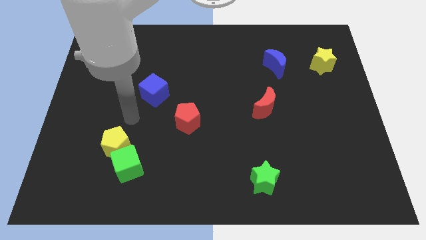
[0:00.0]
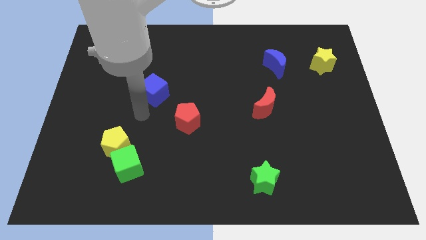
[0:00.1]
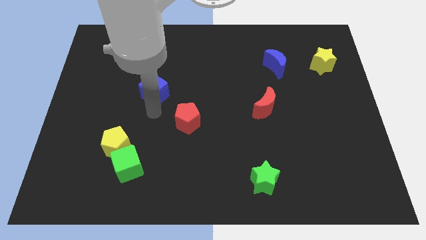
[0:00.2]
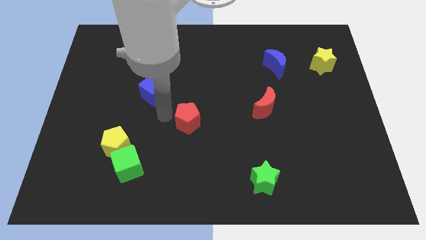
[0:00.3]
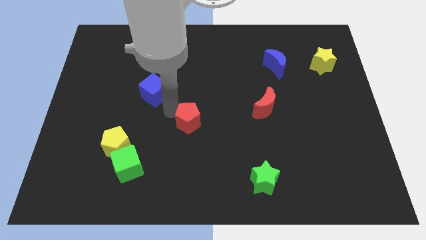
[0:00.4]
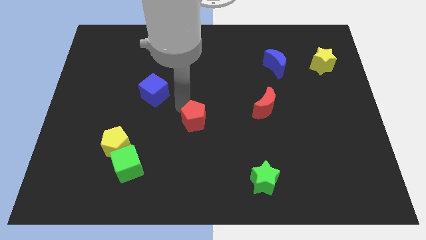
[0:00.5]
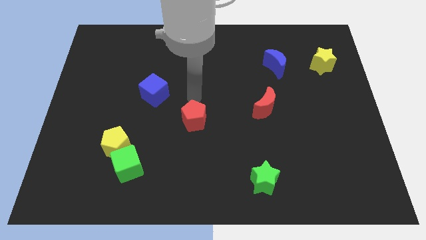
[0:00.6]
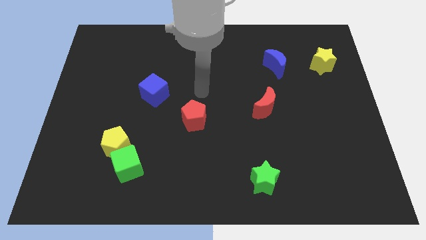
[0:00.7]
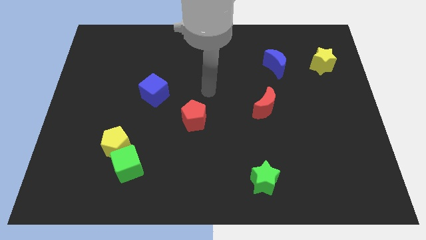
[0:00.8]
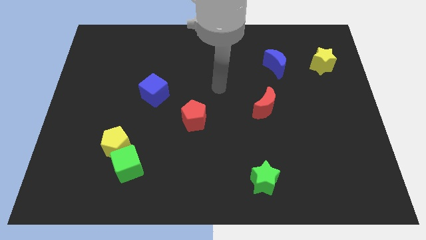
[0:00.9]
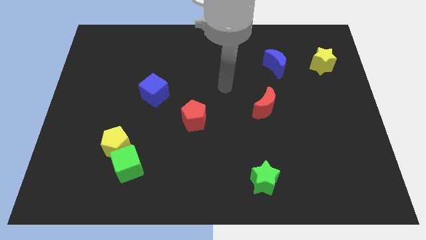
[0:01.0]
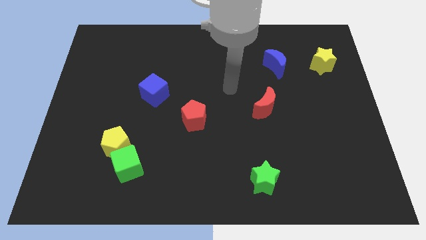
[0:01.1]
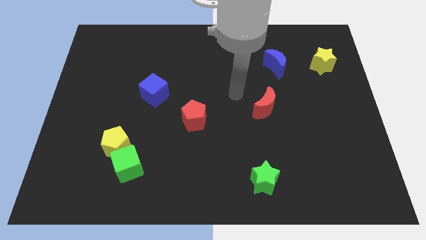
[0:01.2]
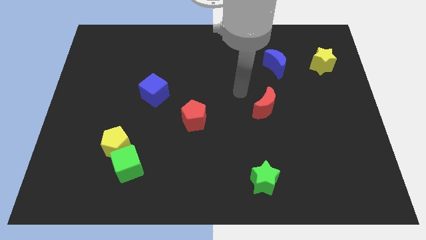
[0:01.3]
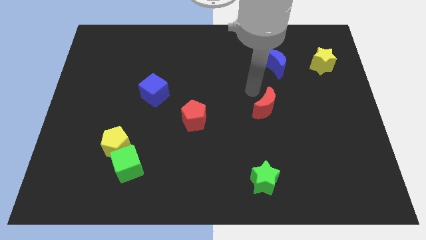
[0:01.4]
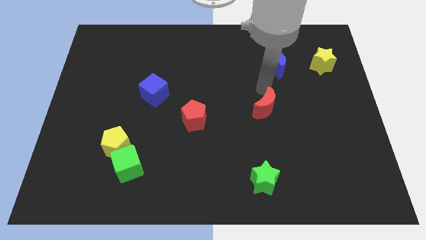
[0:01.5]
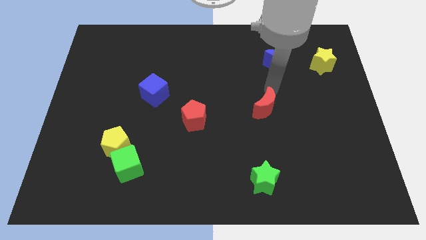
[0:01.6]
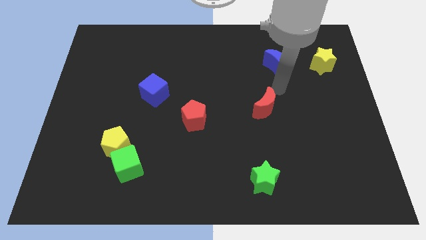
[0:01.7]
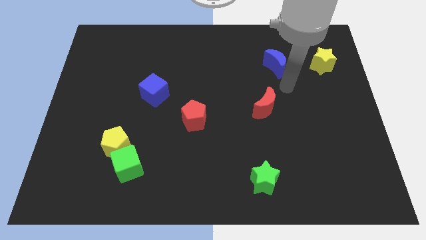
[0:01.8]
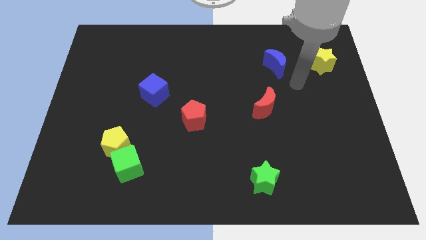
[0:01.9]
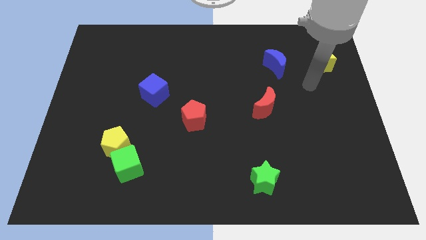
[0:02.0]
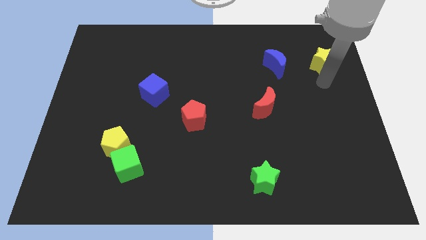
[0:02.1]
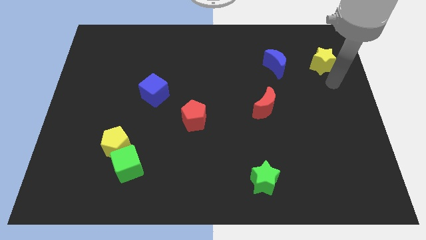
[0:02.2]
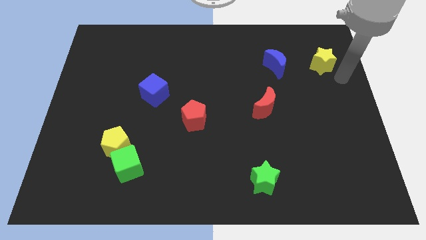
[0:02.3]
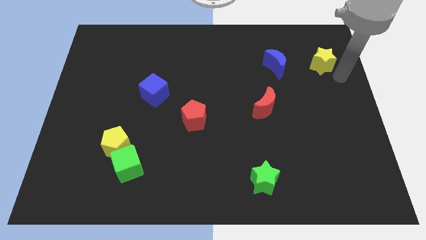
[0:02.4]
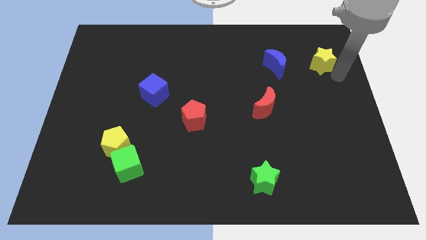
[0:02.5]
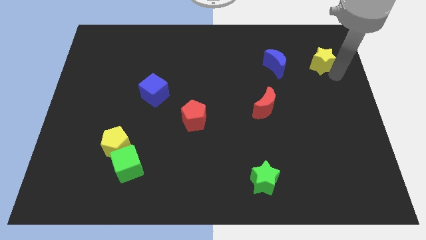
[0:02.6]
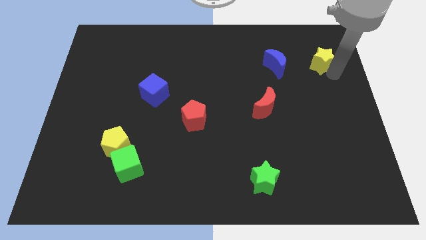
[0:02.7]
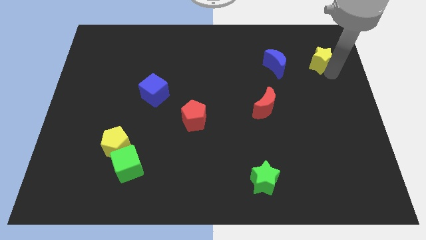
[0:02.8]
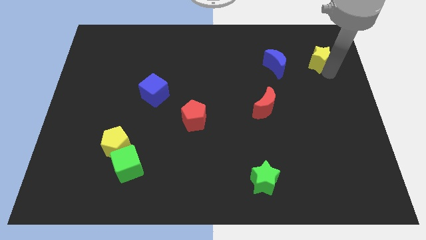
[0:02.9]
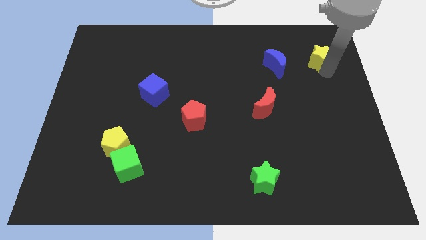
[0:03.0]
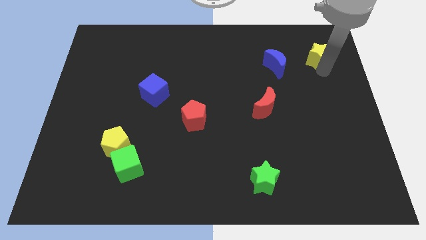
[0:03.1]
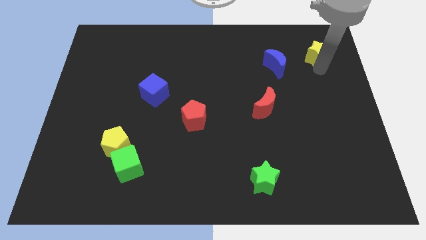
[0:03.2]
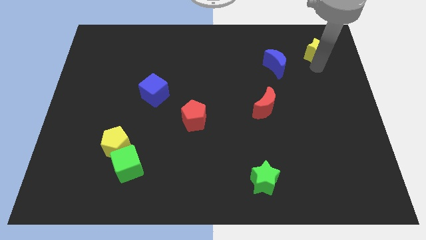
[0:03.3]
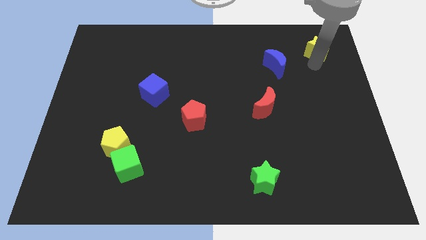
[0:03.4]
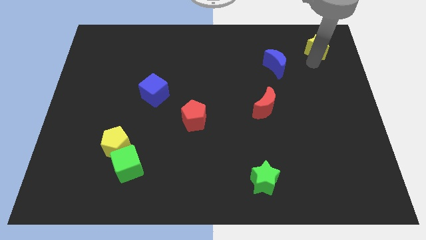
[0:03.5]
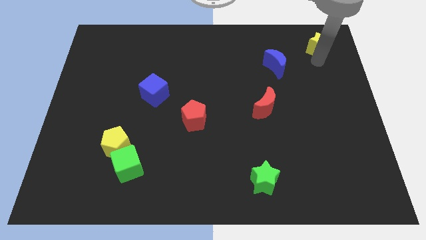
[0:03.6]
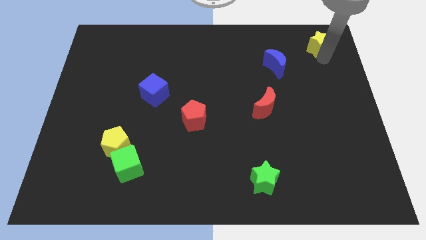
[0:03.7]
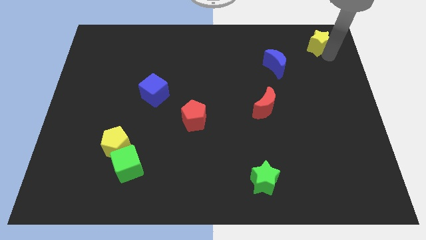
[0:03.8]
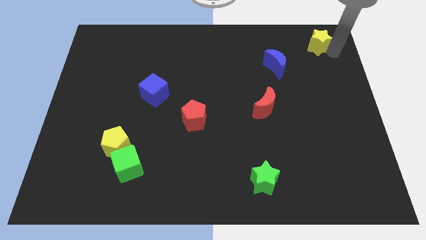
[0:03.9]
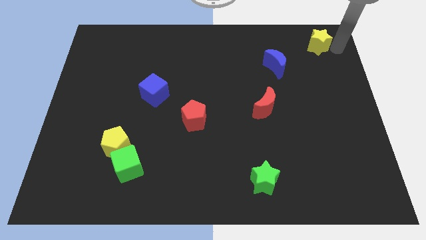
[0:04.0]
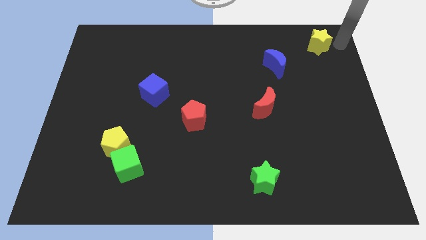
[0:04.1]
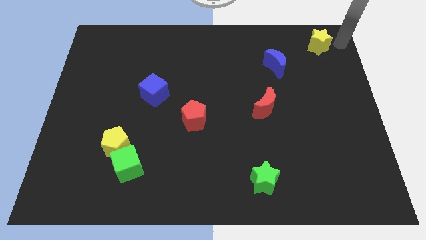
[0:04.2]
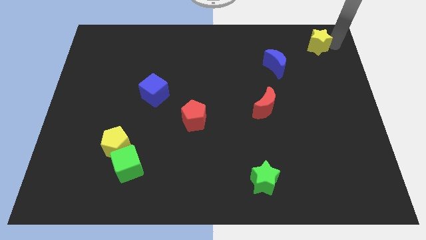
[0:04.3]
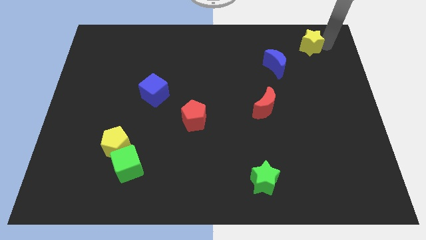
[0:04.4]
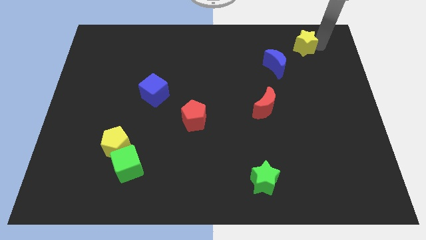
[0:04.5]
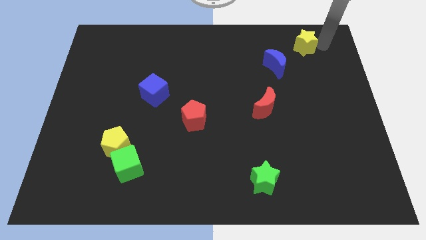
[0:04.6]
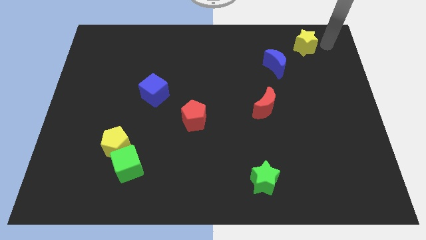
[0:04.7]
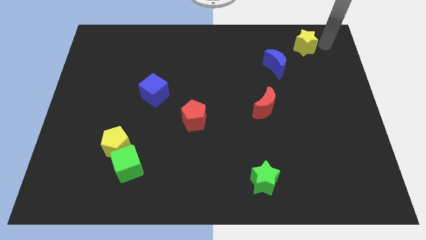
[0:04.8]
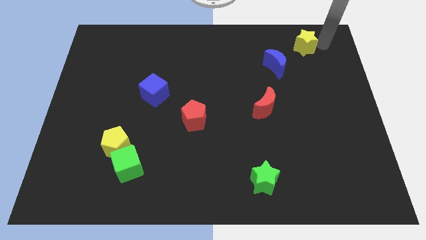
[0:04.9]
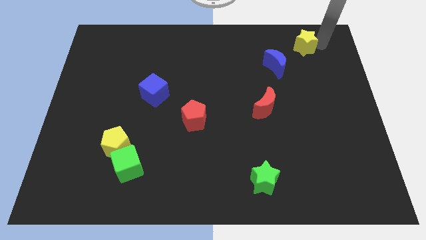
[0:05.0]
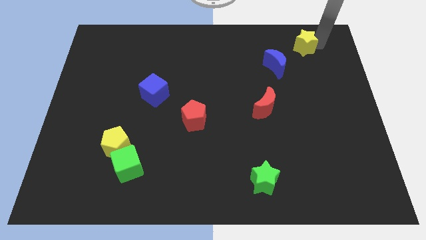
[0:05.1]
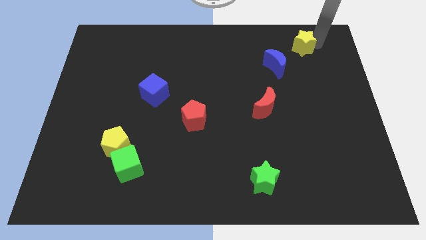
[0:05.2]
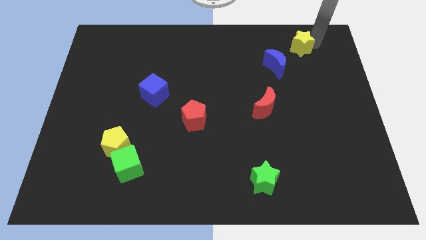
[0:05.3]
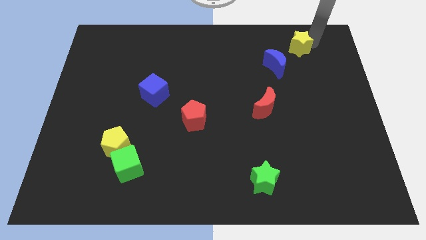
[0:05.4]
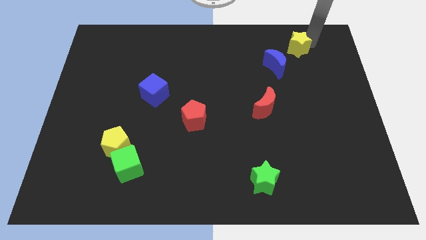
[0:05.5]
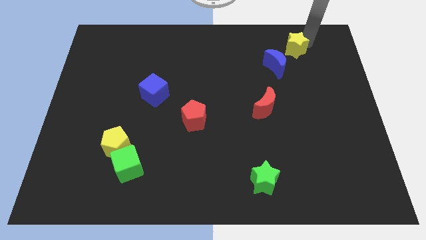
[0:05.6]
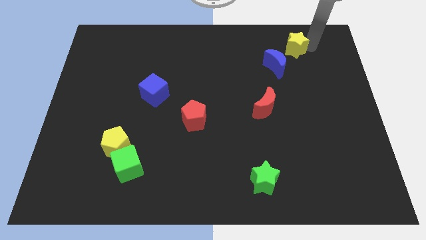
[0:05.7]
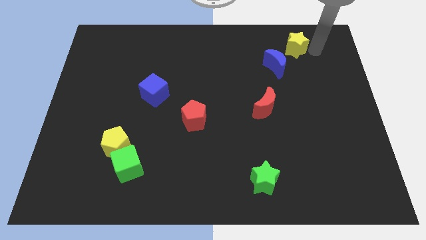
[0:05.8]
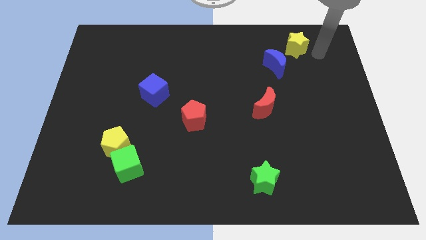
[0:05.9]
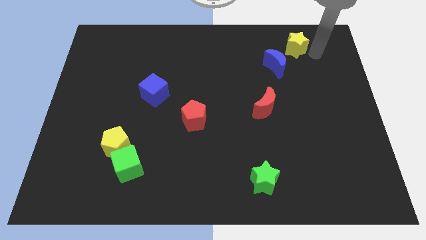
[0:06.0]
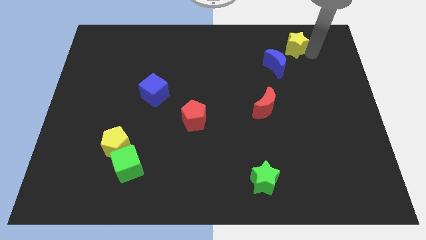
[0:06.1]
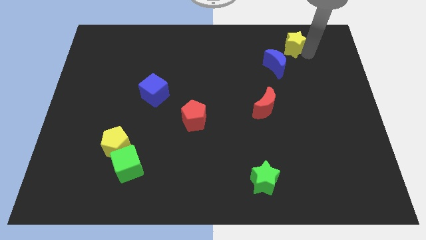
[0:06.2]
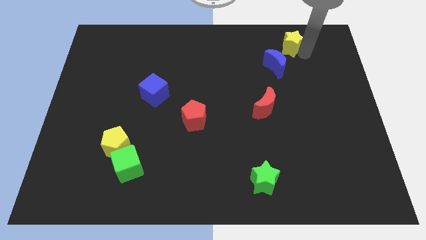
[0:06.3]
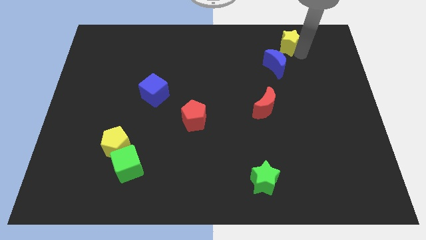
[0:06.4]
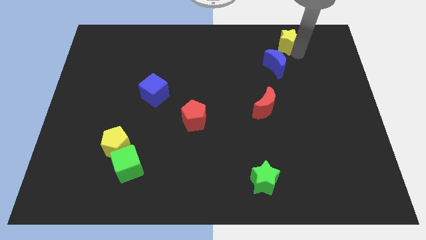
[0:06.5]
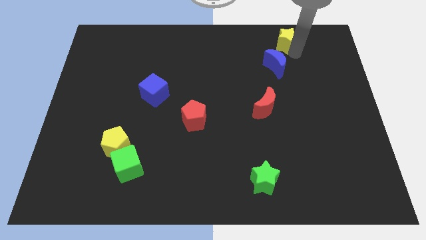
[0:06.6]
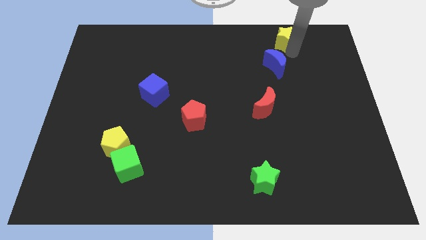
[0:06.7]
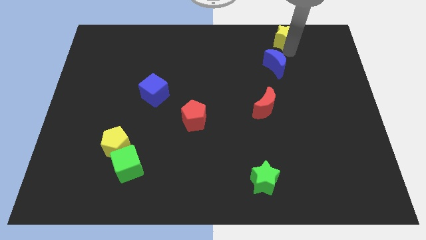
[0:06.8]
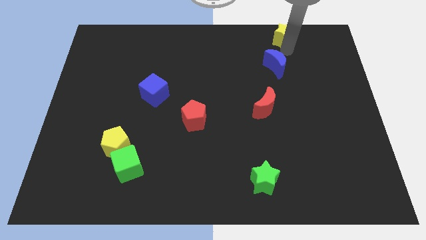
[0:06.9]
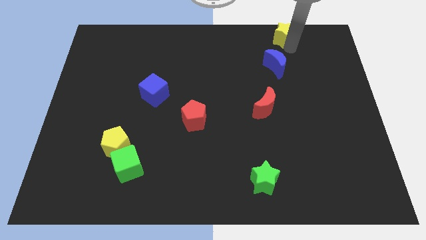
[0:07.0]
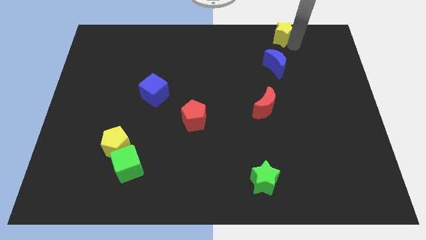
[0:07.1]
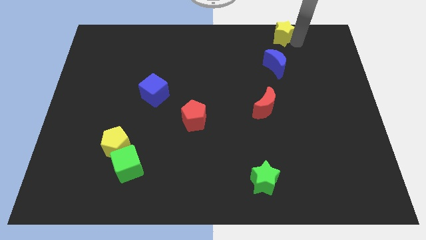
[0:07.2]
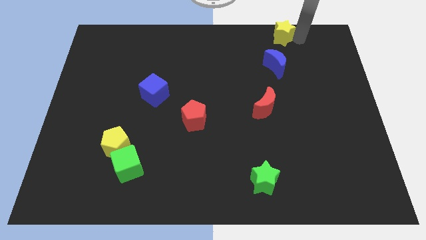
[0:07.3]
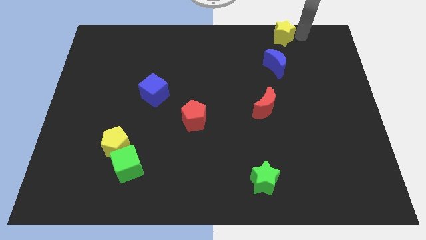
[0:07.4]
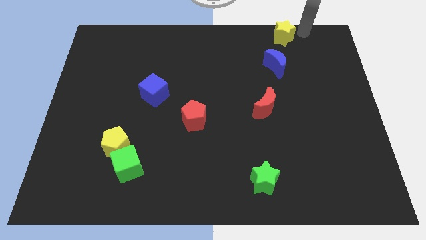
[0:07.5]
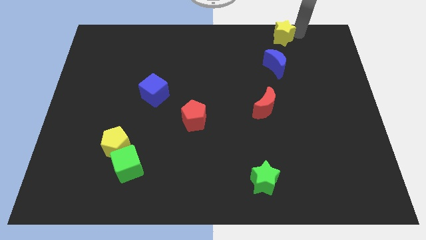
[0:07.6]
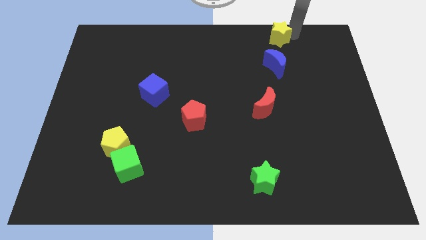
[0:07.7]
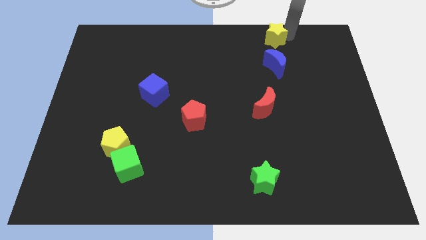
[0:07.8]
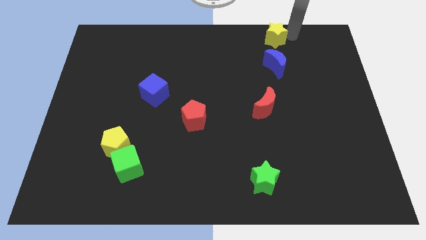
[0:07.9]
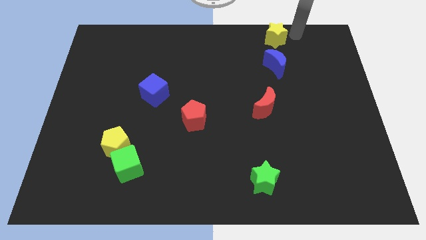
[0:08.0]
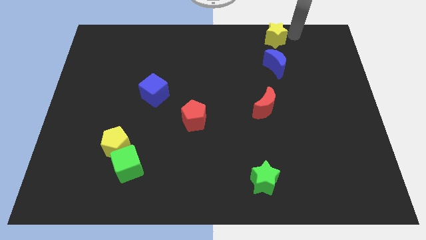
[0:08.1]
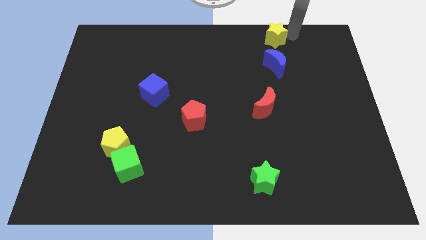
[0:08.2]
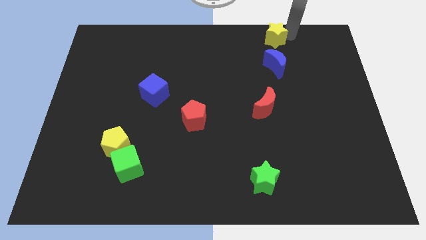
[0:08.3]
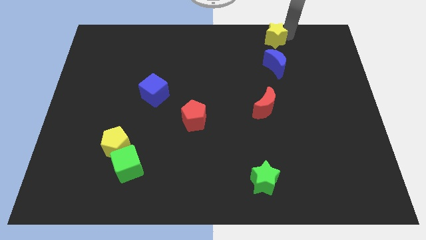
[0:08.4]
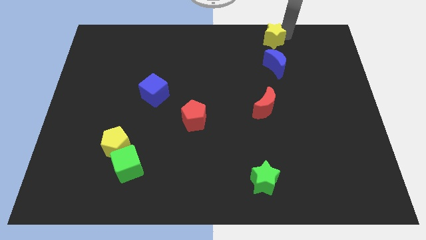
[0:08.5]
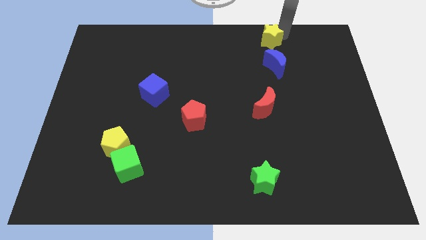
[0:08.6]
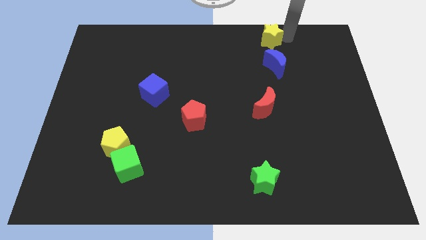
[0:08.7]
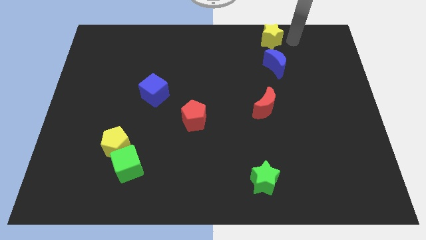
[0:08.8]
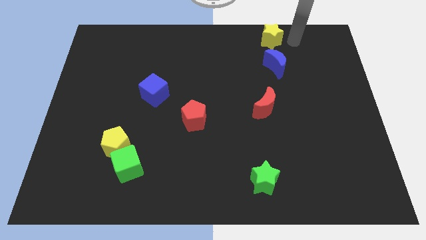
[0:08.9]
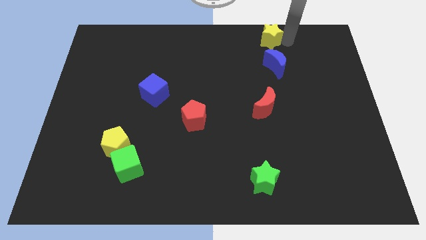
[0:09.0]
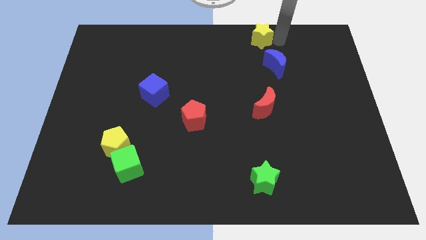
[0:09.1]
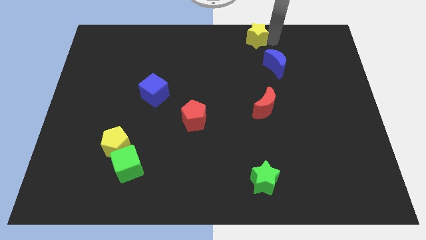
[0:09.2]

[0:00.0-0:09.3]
move the yellow star to the towards your base
